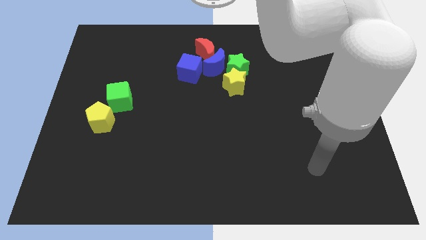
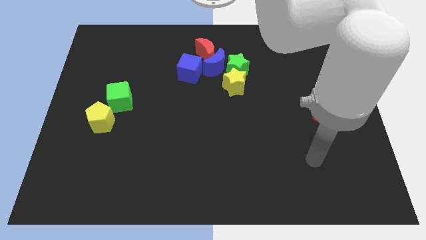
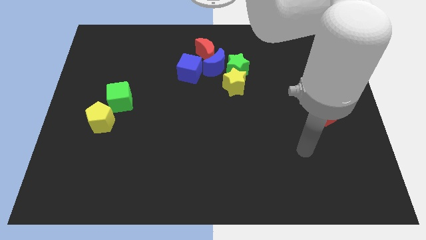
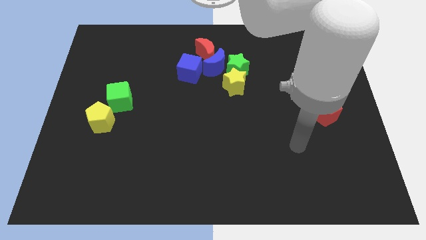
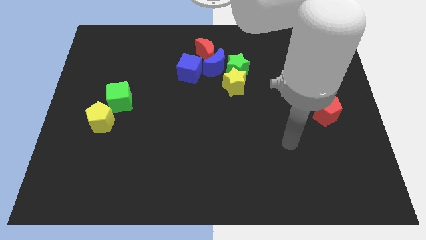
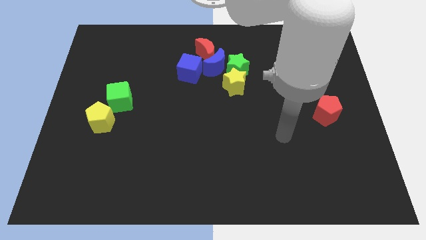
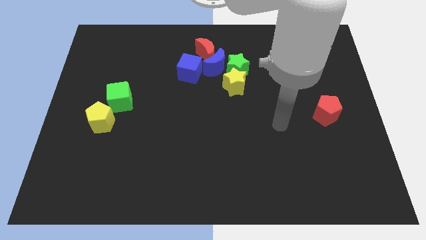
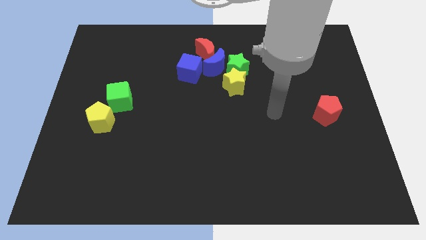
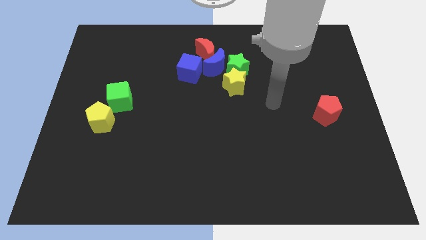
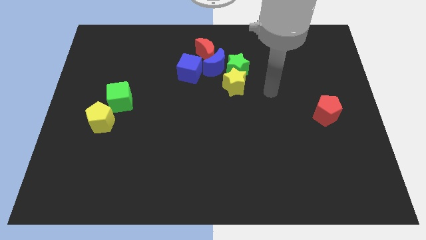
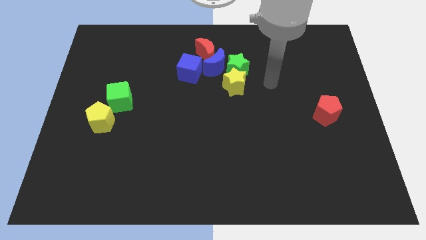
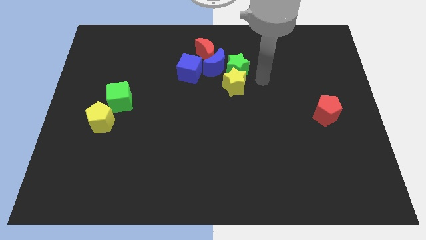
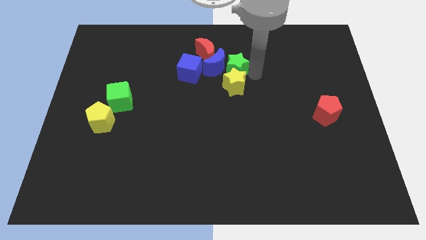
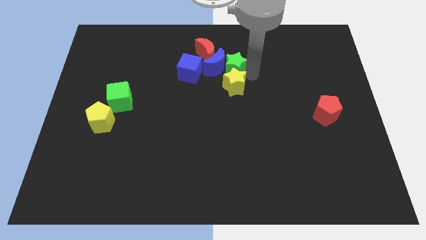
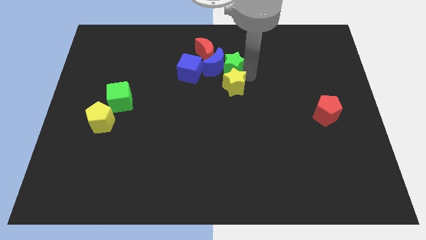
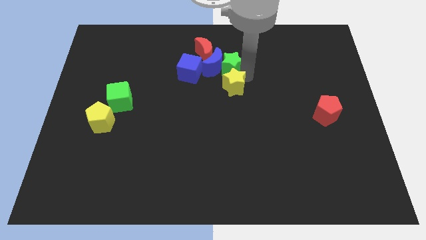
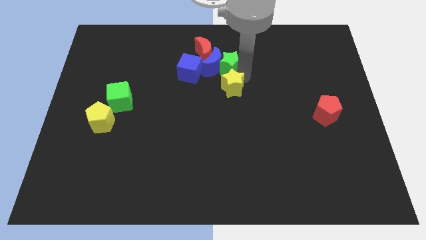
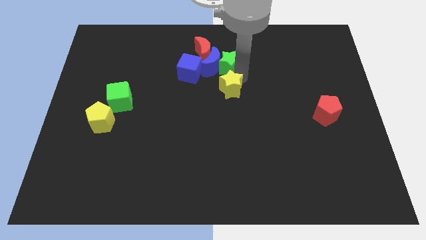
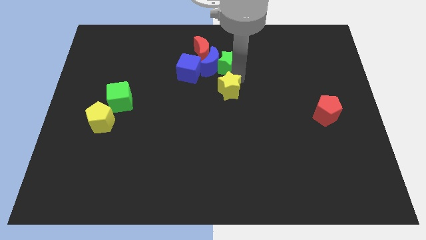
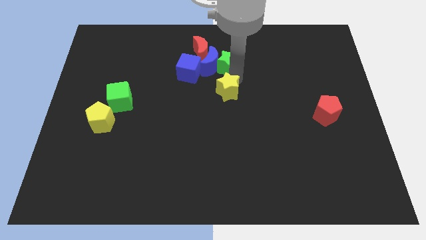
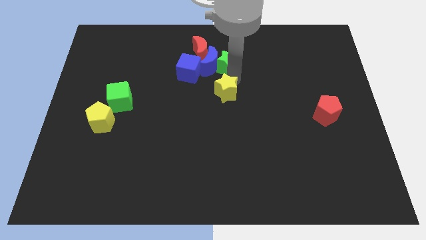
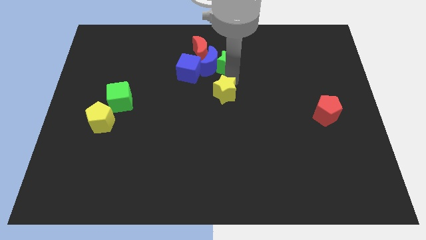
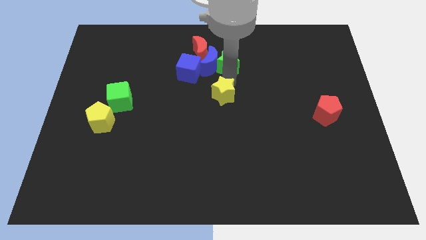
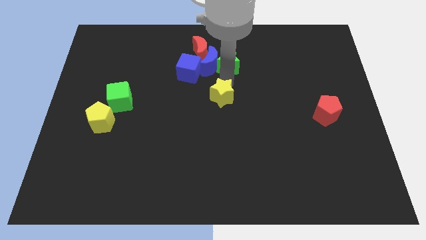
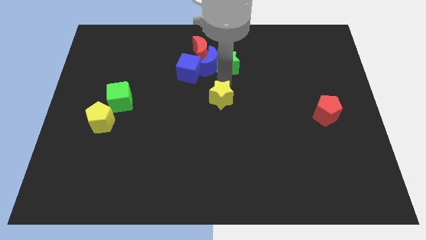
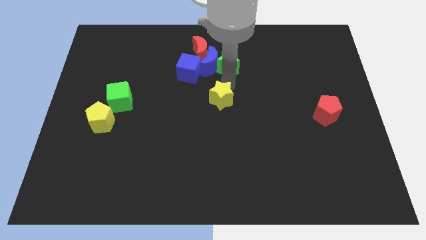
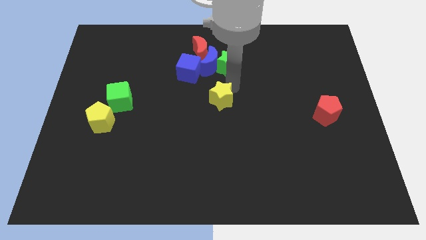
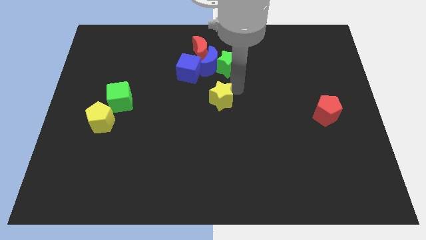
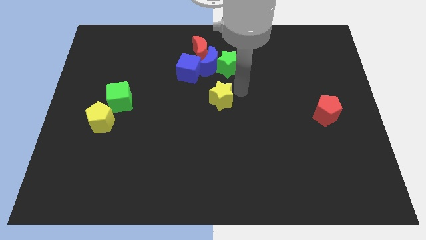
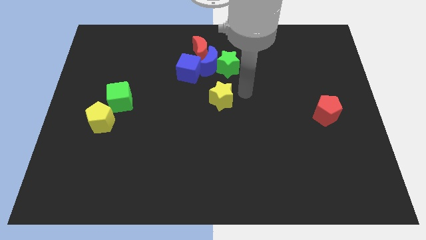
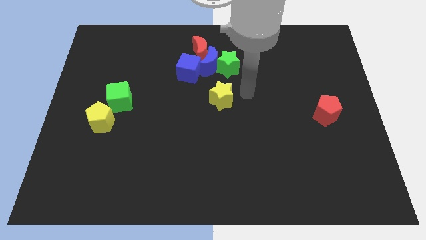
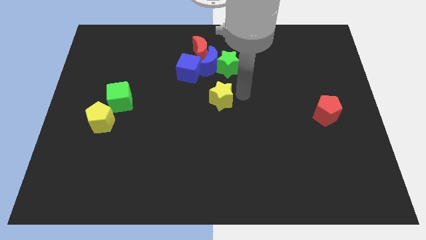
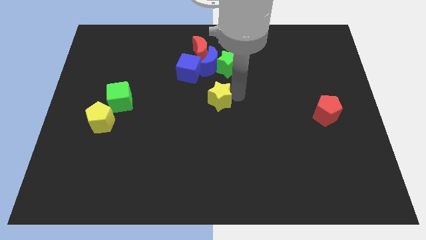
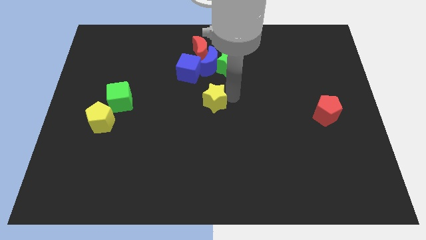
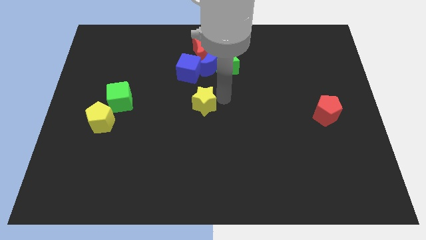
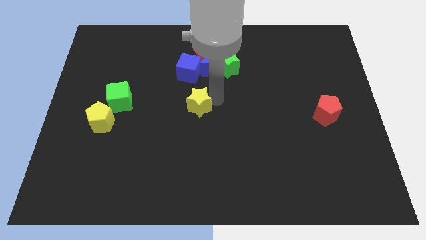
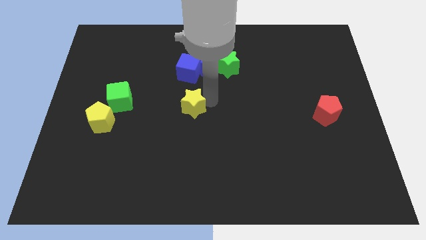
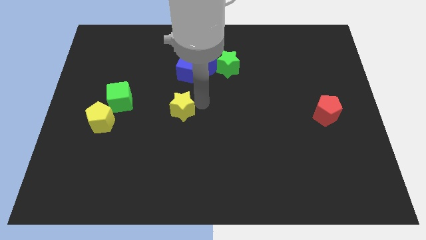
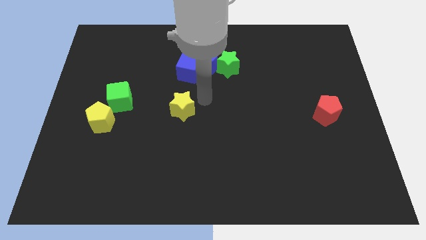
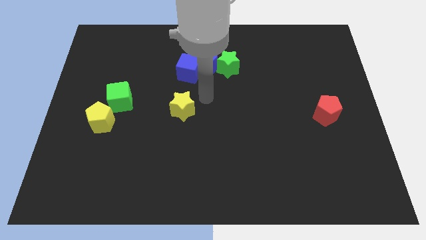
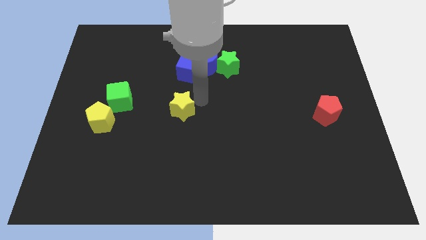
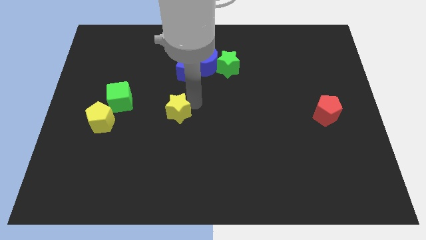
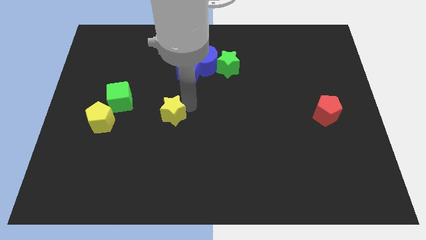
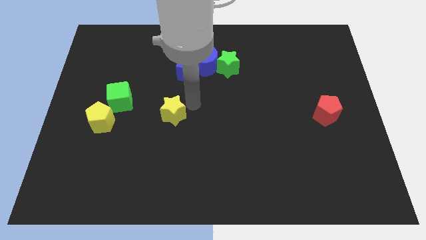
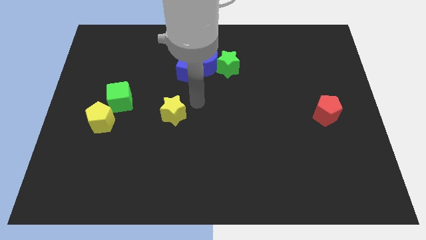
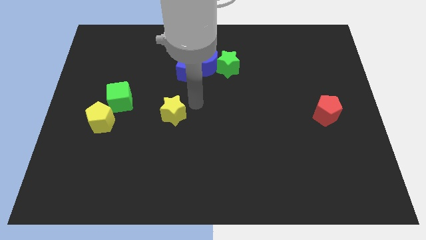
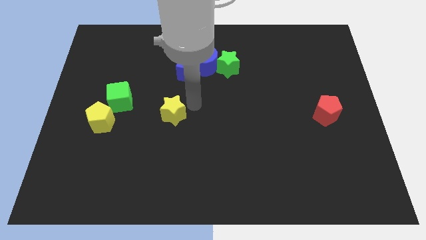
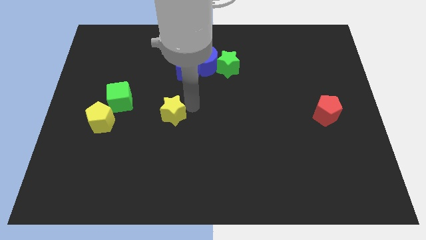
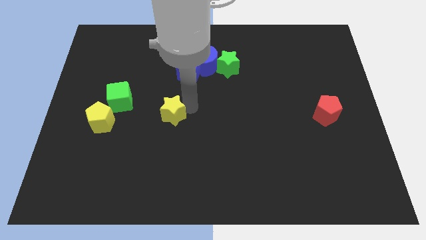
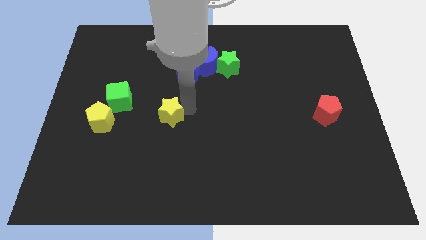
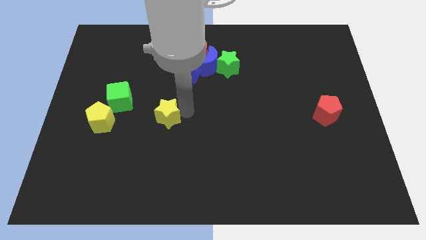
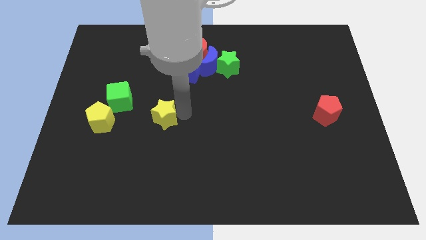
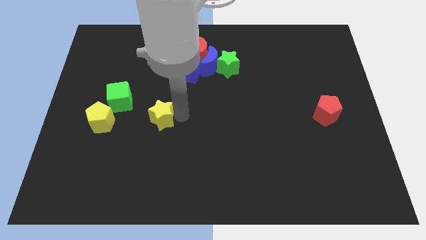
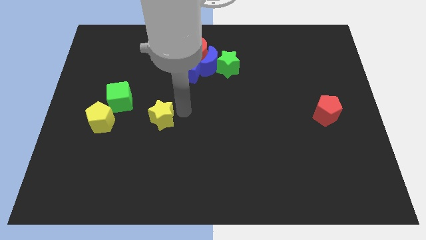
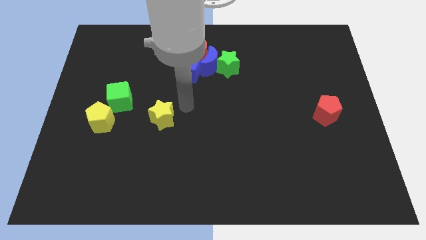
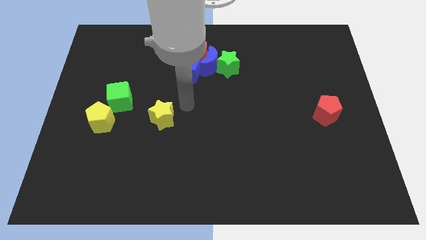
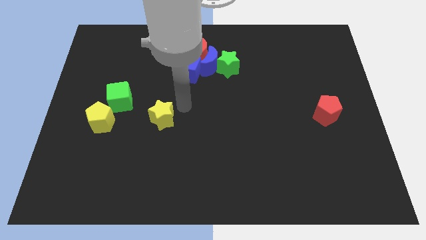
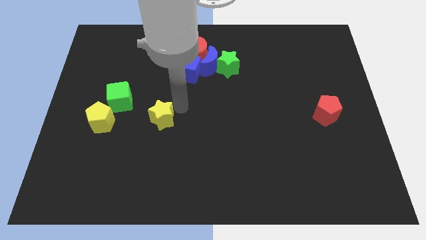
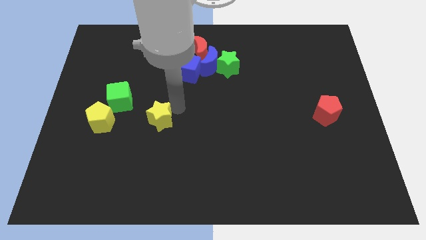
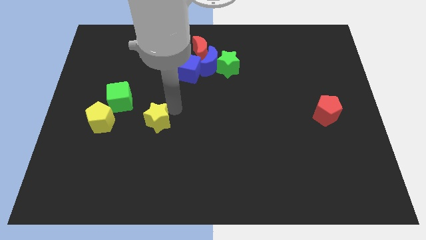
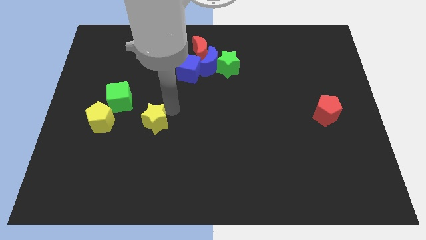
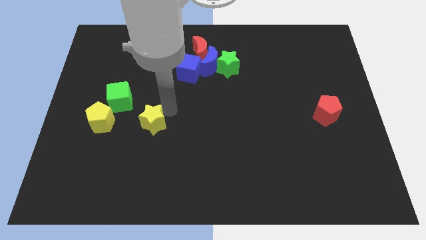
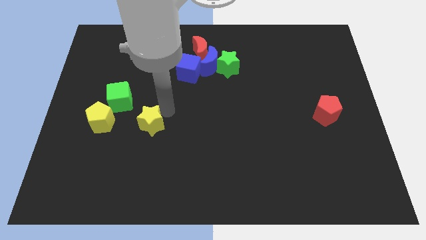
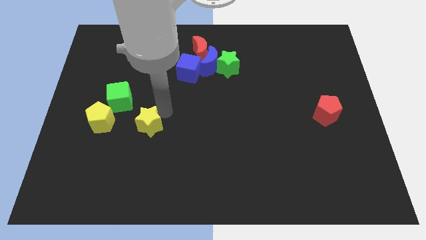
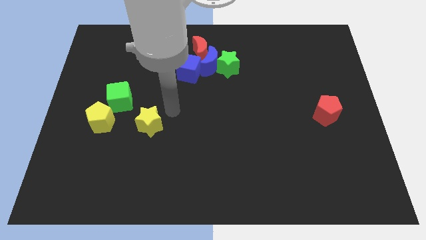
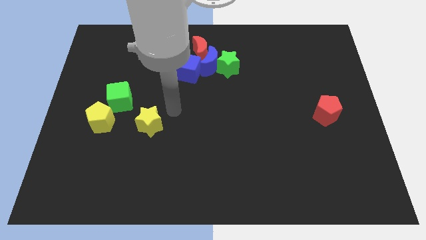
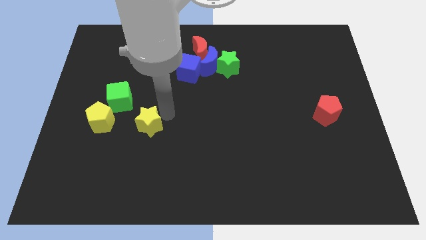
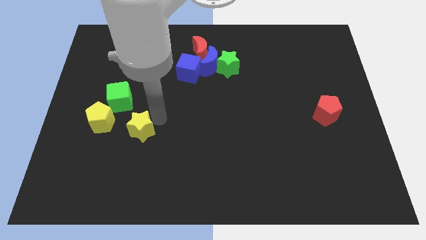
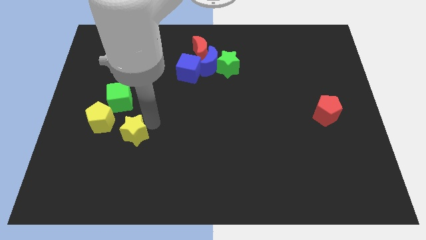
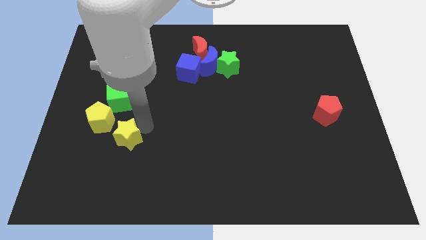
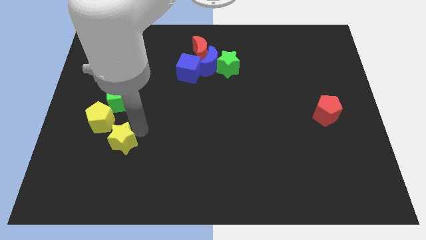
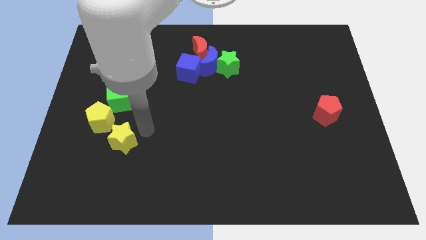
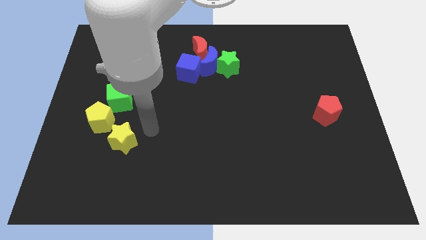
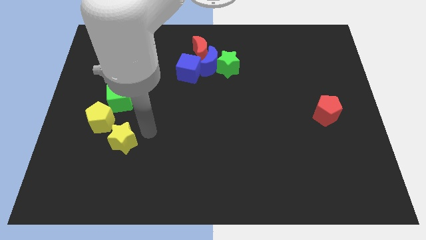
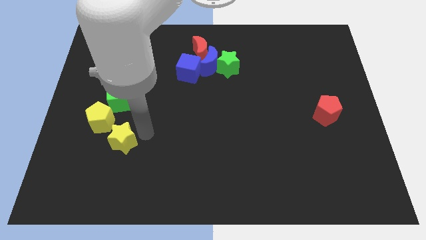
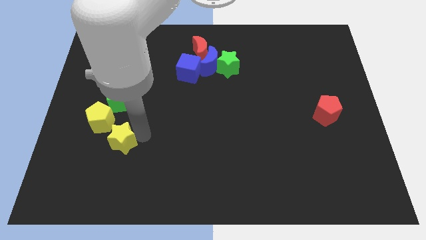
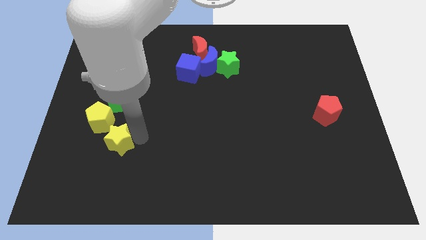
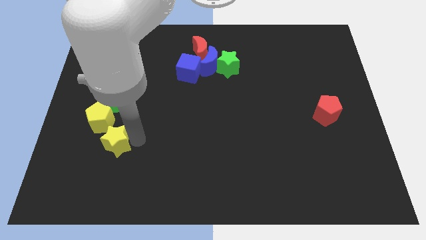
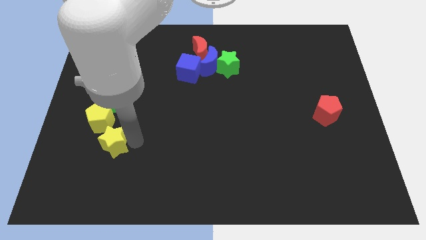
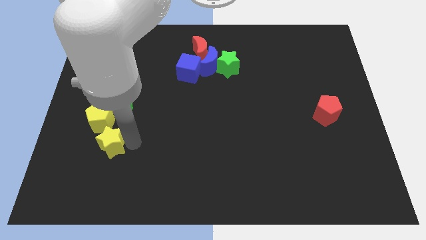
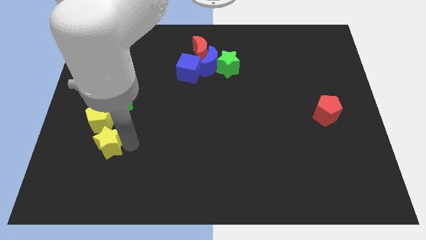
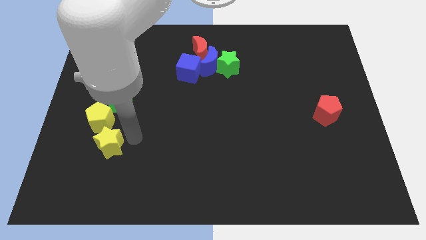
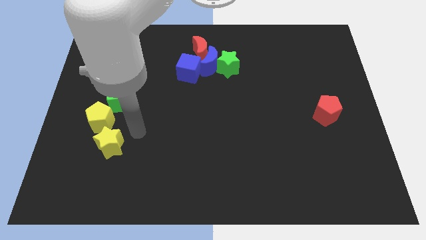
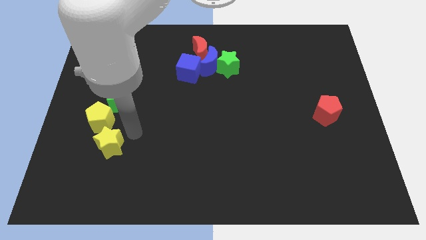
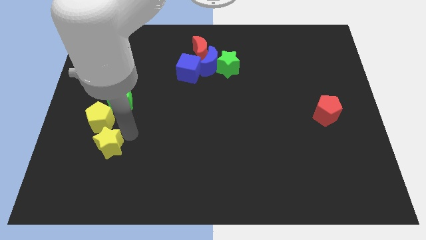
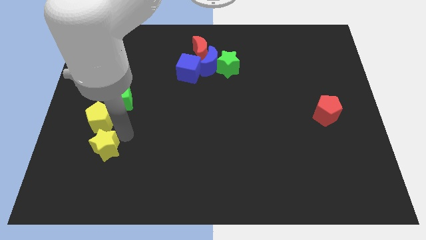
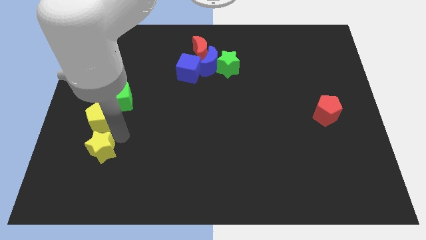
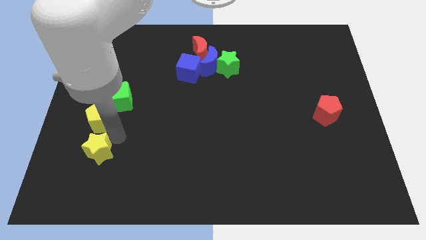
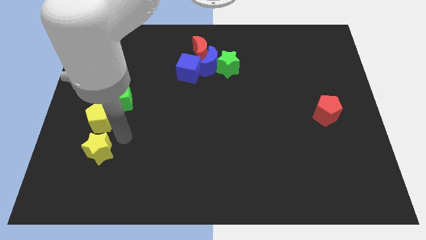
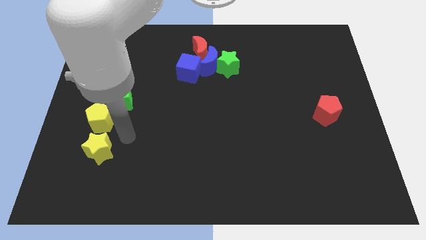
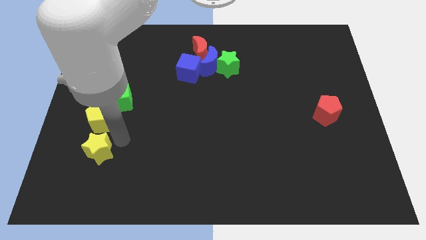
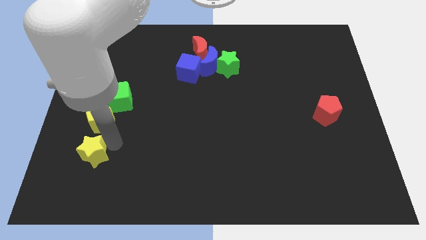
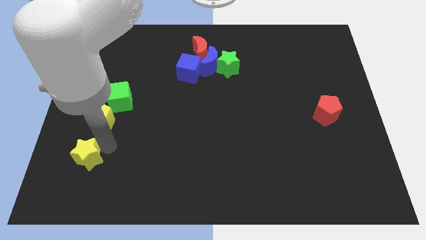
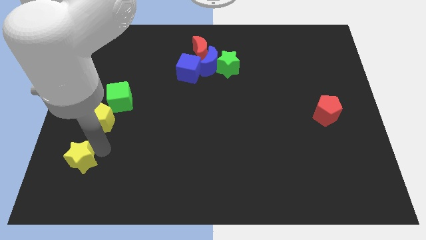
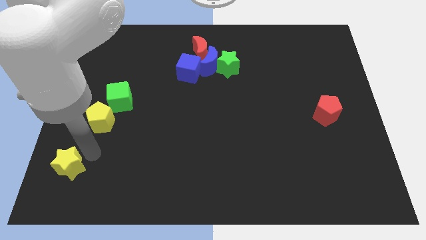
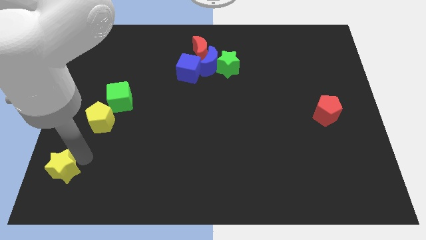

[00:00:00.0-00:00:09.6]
slide the yellow star to the bottom left
